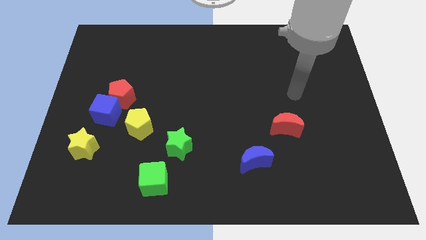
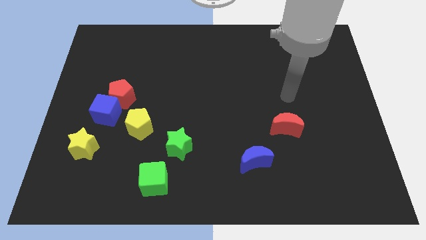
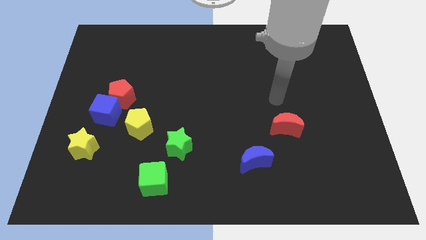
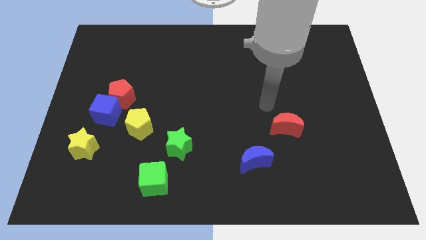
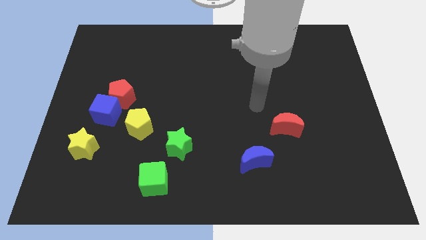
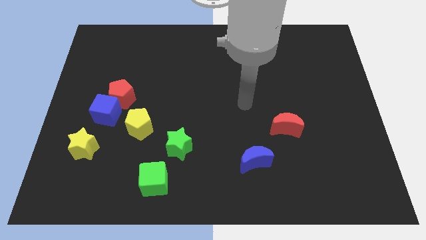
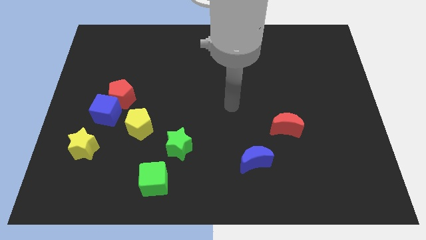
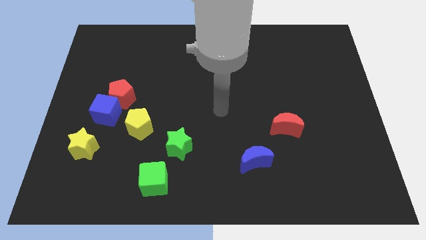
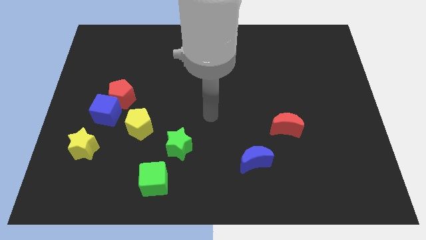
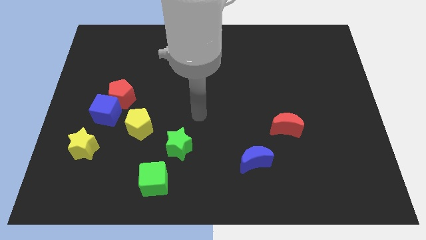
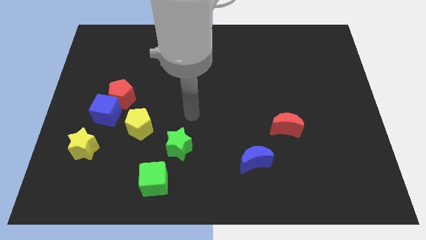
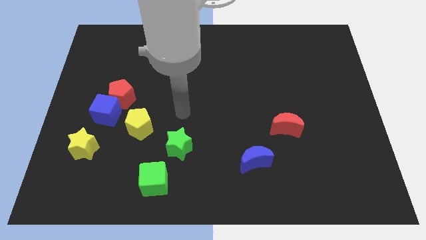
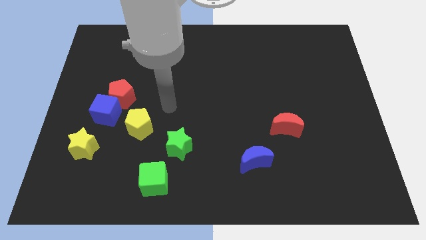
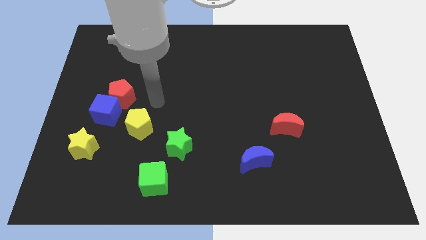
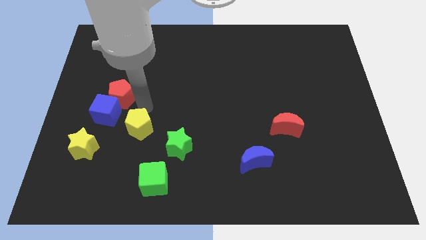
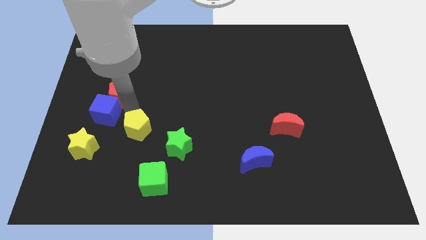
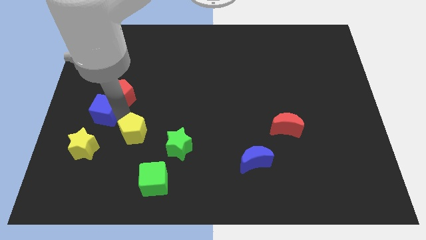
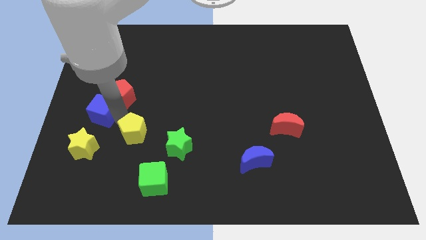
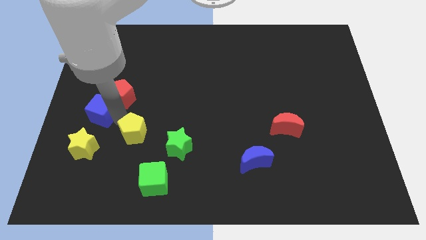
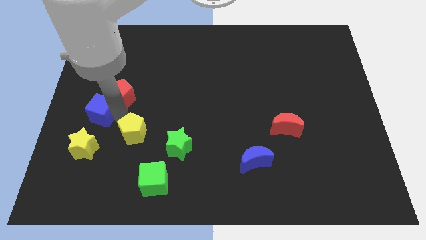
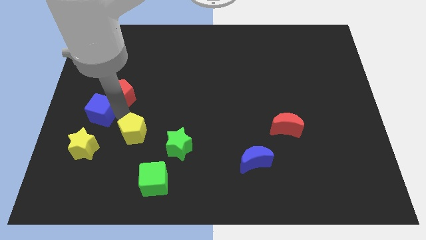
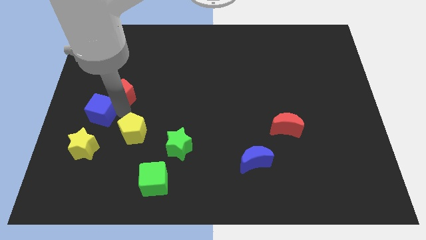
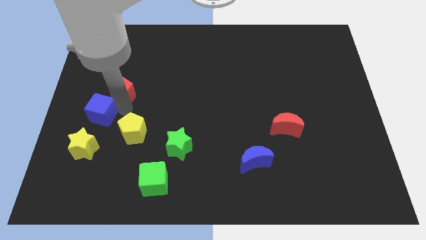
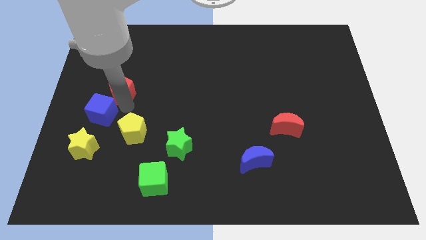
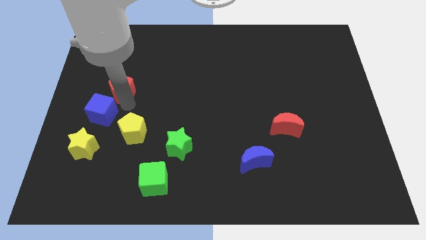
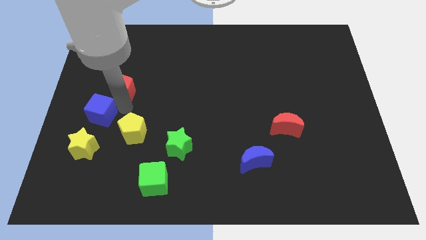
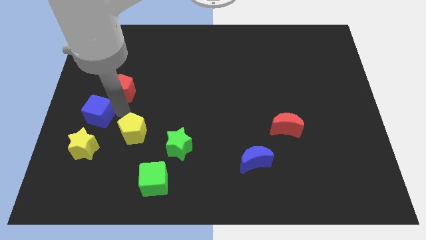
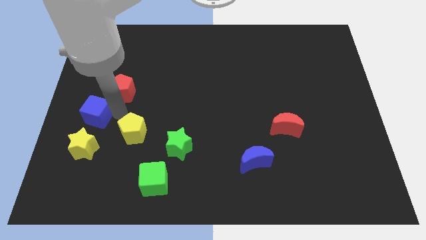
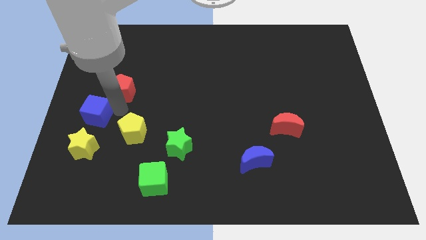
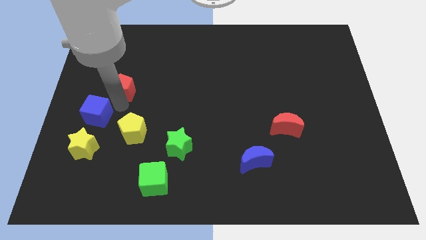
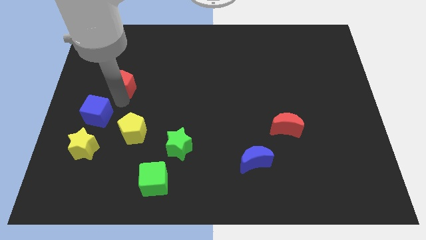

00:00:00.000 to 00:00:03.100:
separate the red pentagon from the blue cube and yellow pentagon

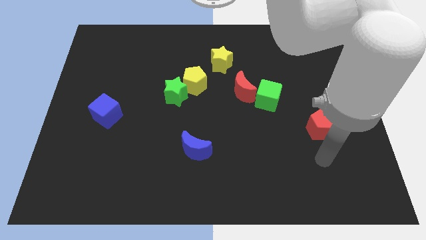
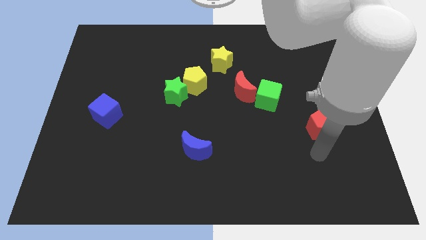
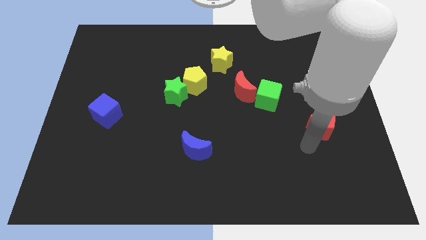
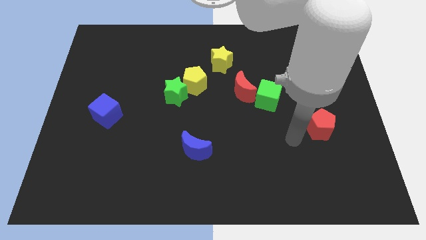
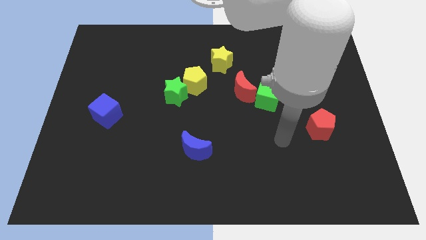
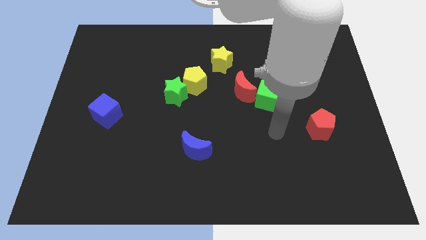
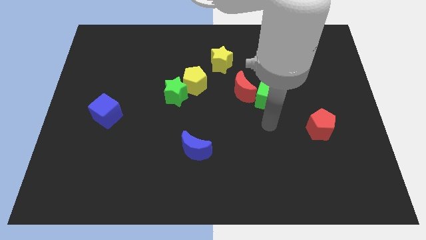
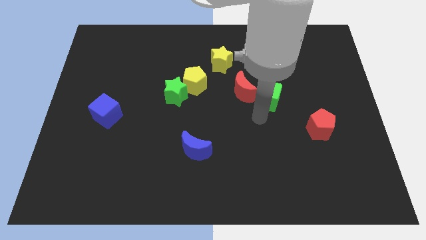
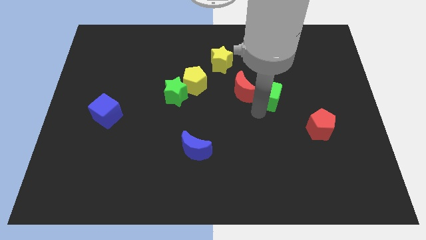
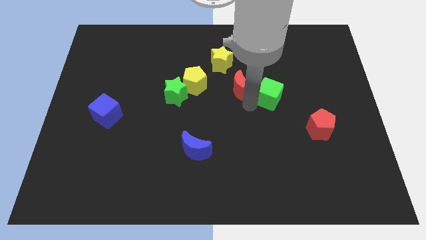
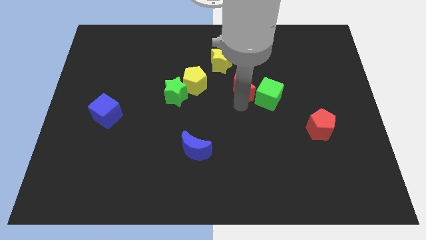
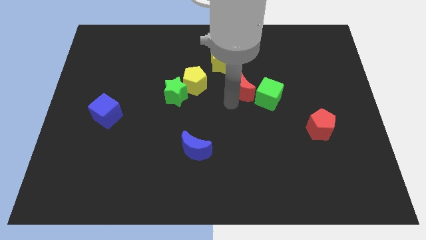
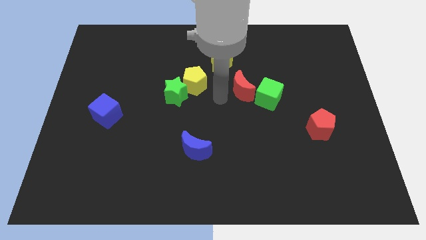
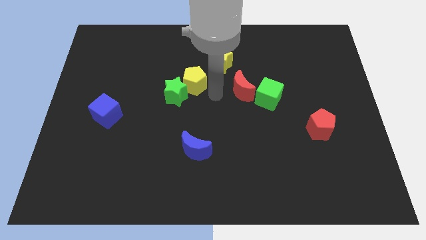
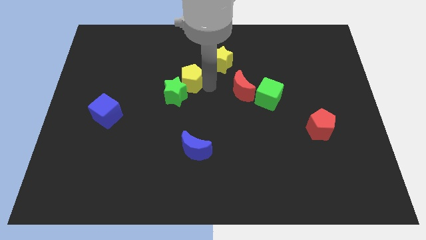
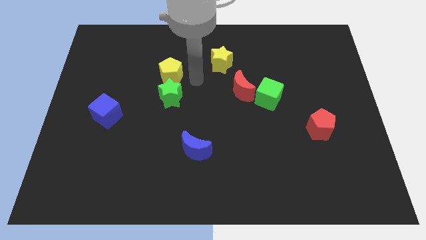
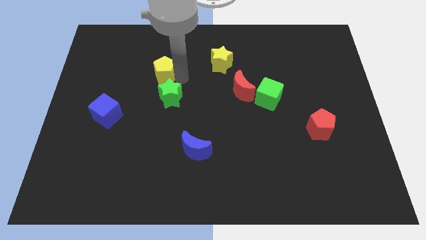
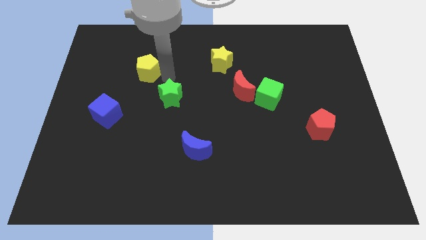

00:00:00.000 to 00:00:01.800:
separate the green star from the yellow pentagon

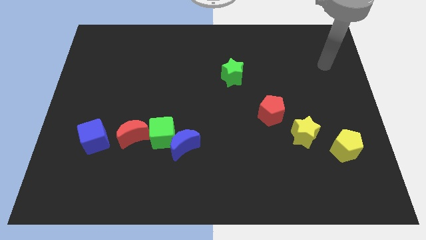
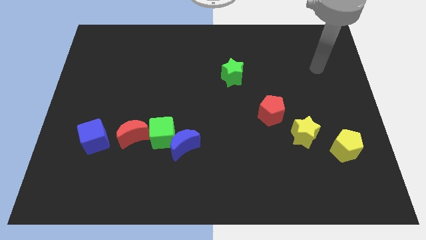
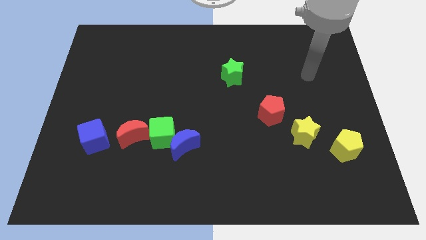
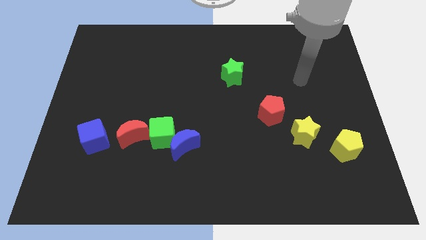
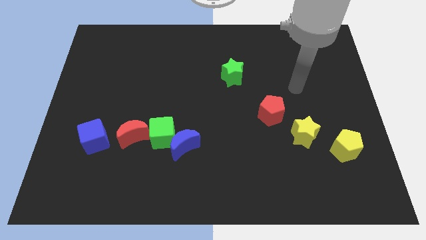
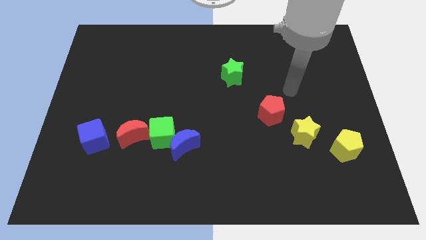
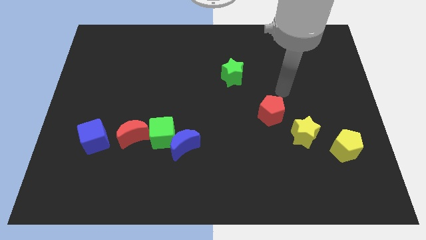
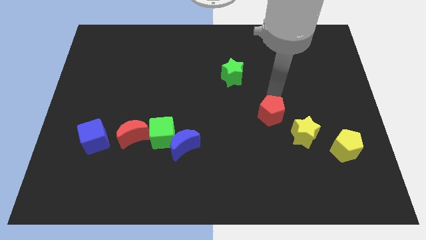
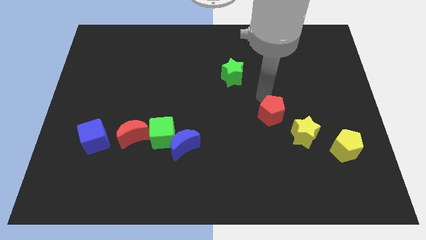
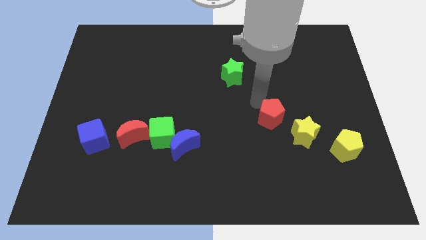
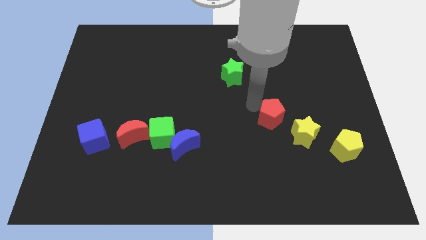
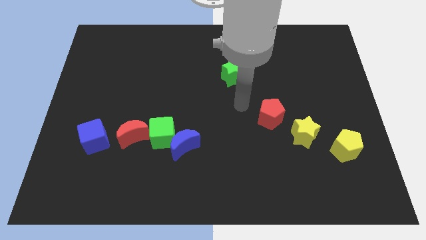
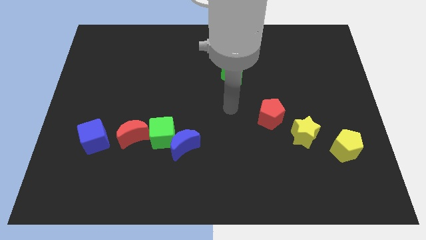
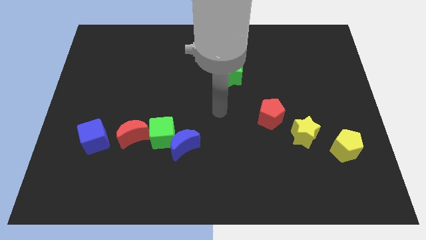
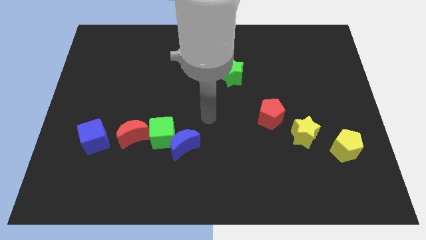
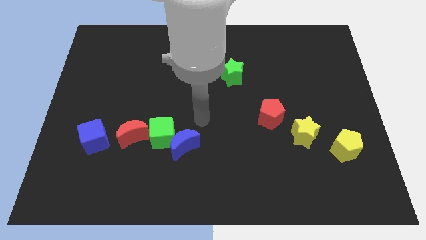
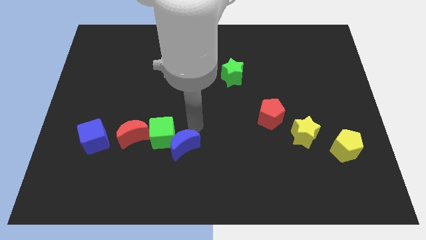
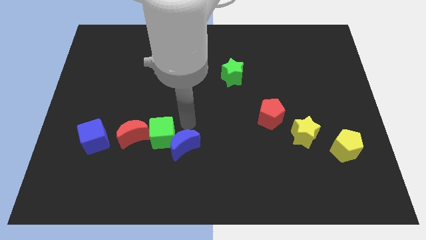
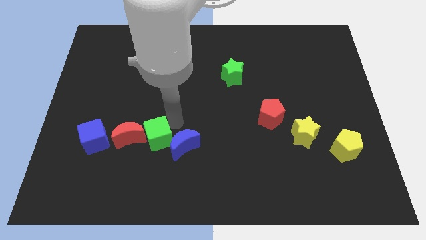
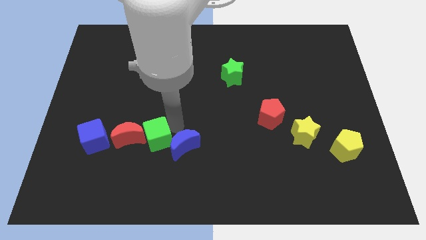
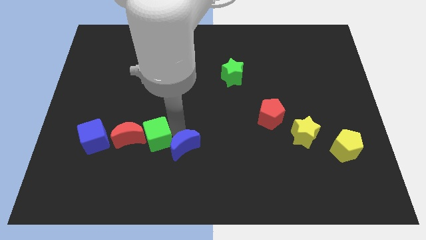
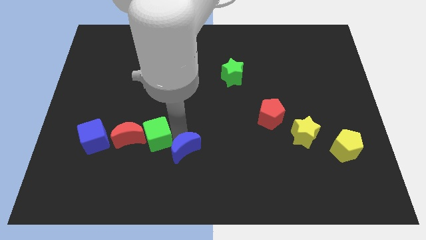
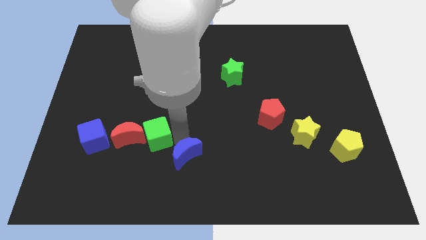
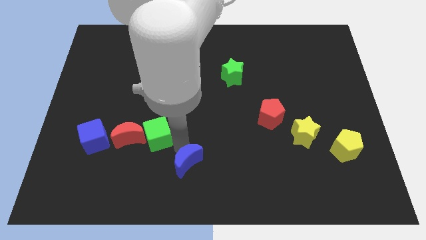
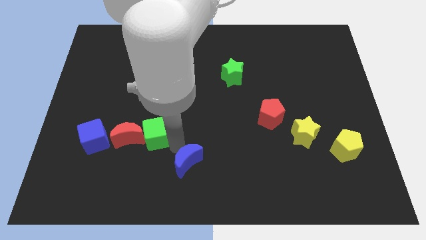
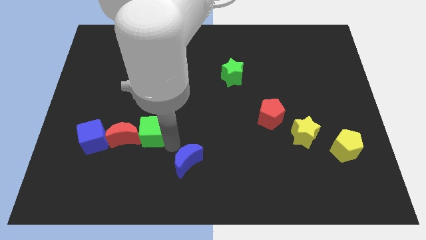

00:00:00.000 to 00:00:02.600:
separate the blue moon from the green cube

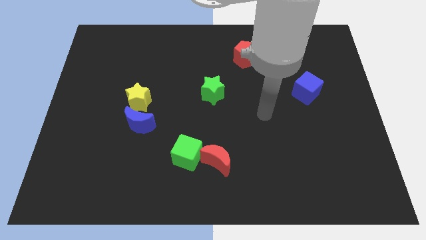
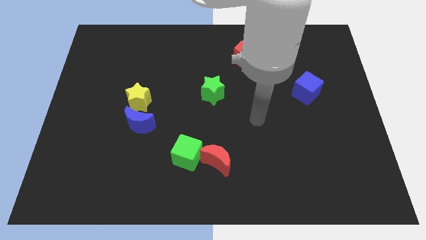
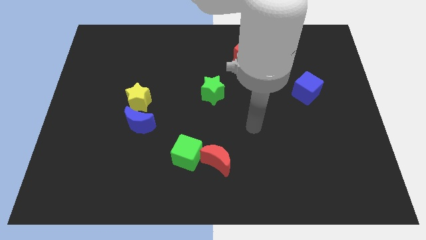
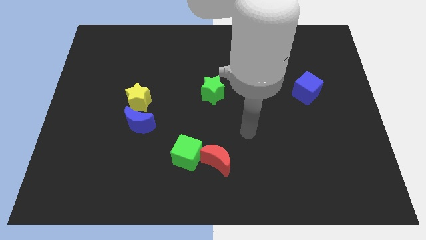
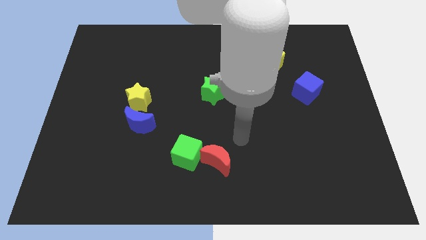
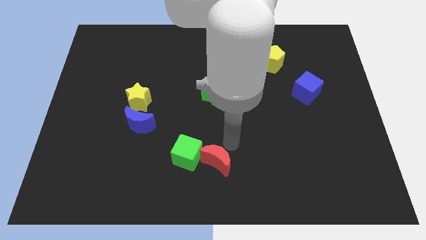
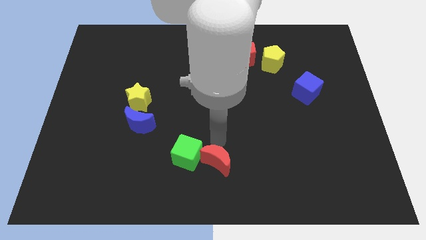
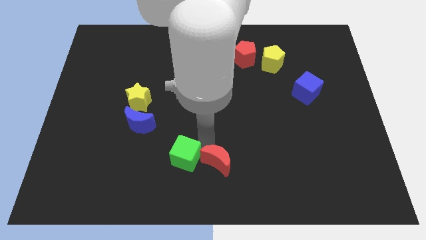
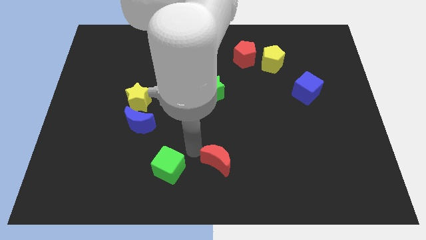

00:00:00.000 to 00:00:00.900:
move the red moon away from the green cube

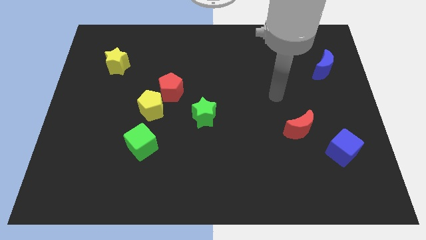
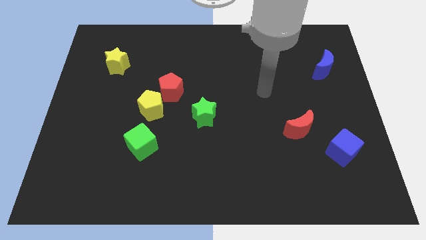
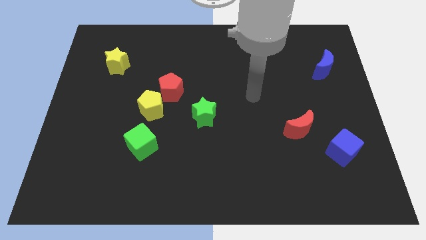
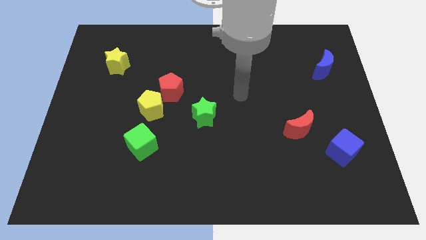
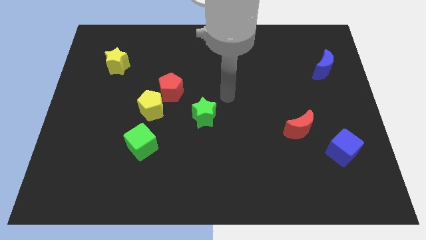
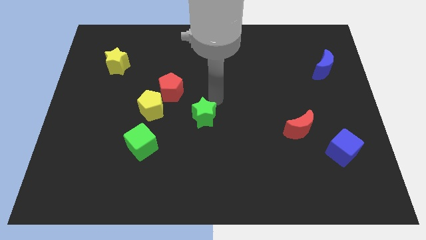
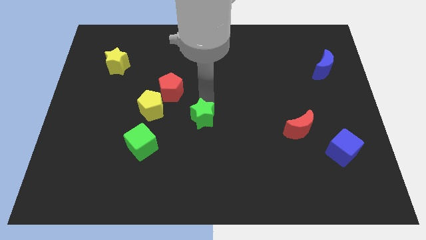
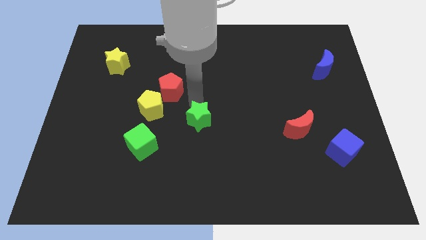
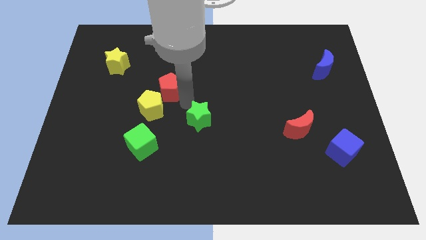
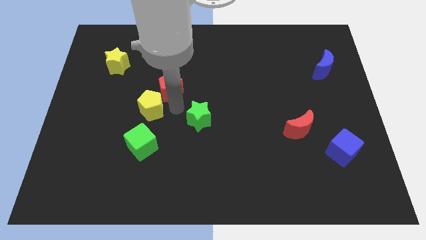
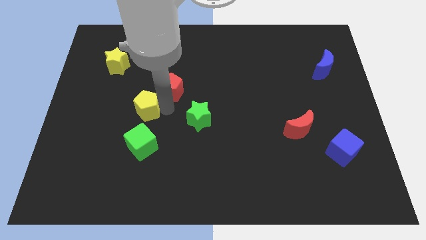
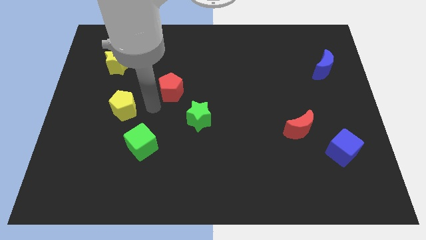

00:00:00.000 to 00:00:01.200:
separate the red pentagon from the yellow pentagon
